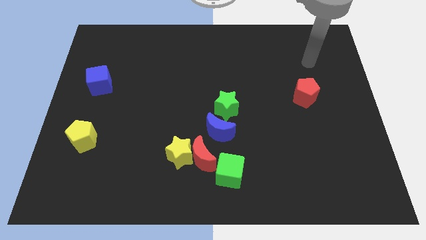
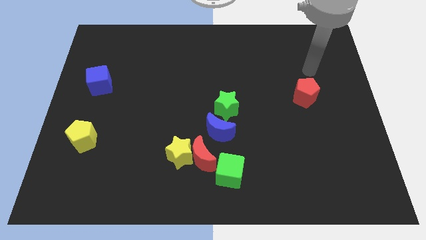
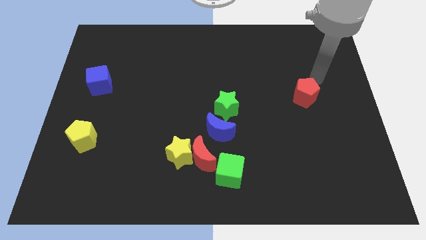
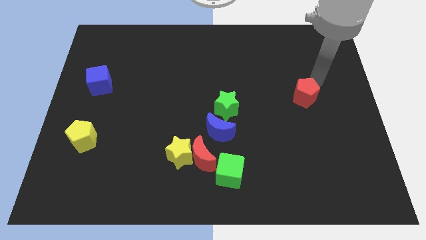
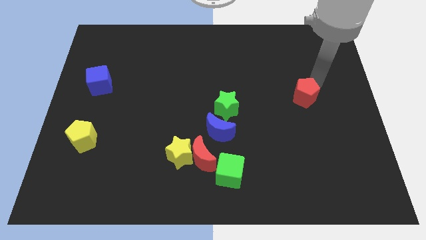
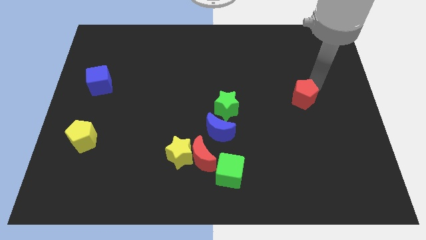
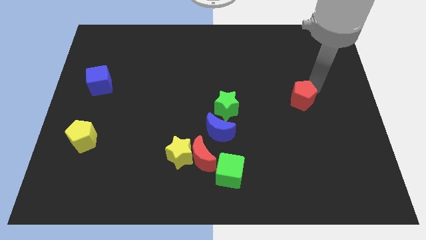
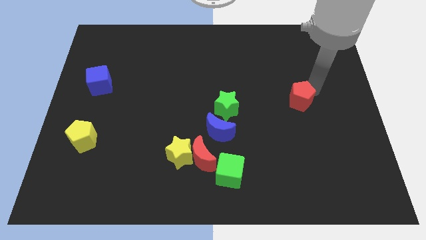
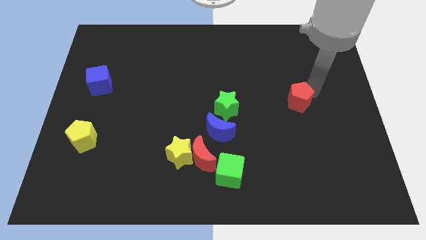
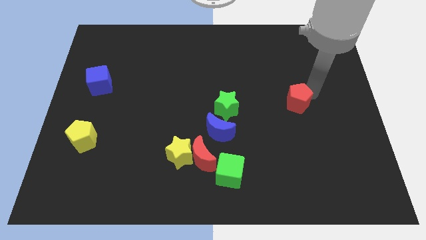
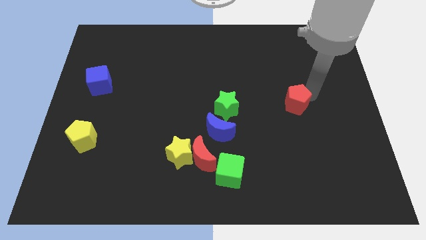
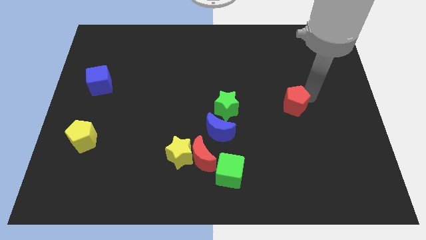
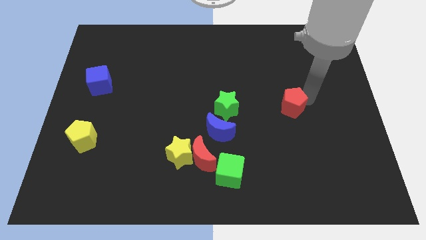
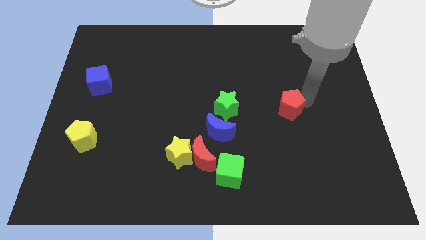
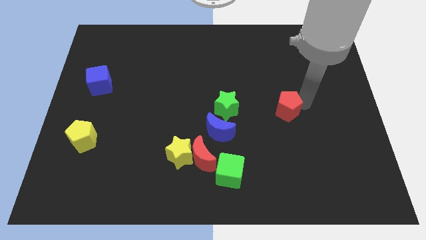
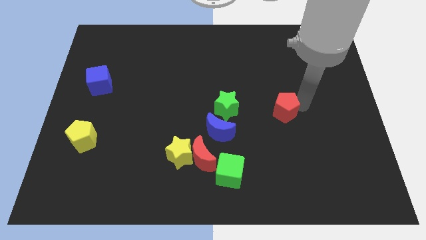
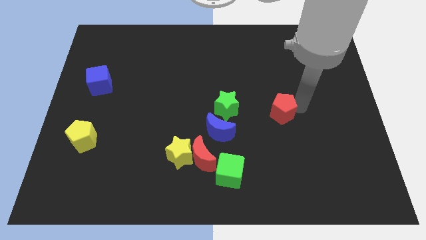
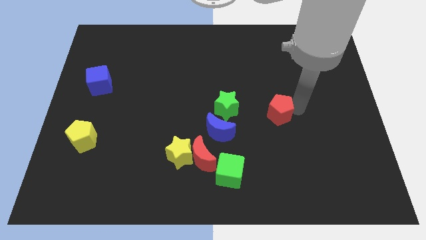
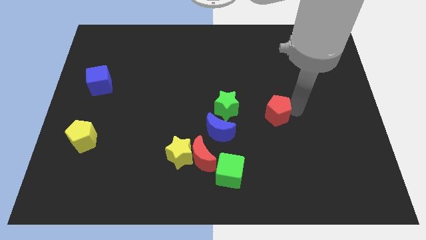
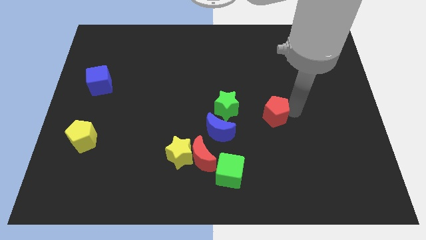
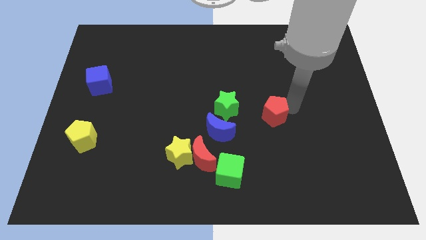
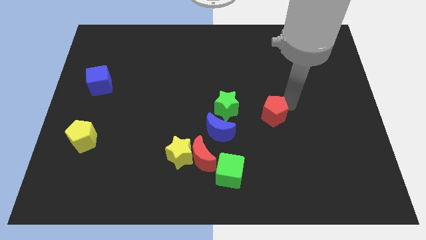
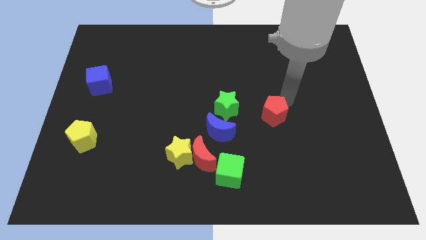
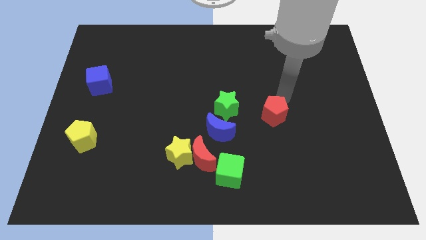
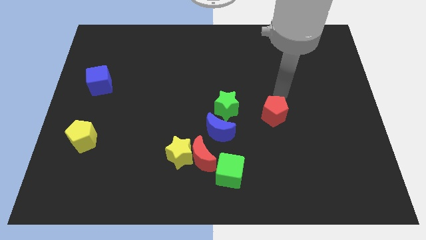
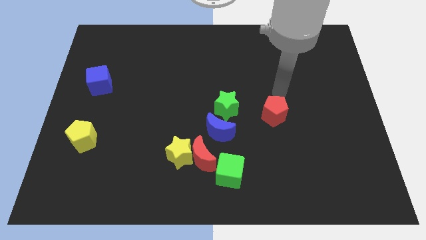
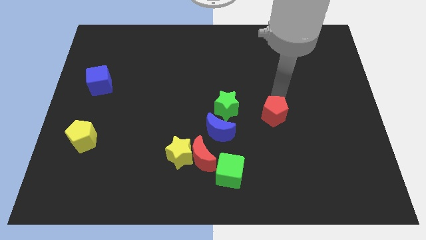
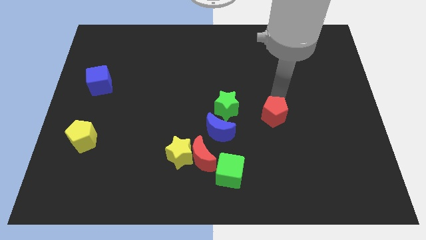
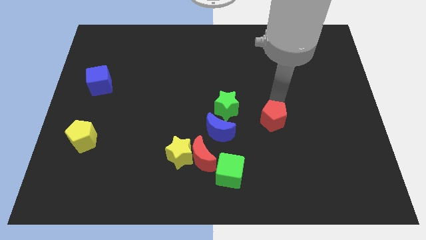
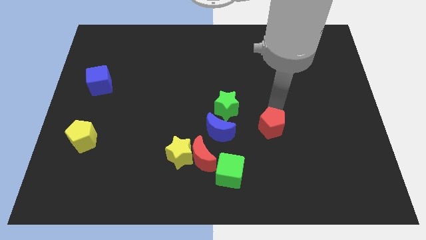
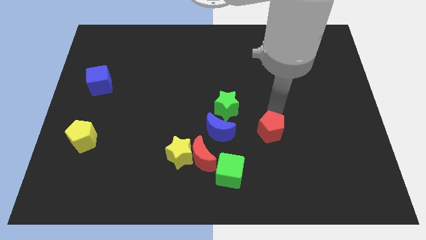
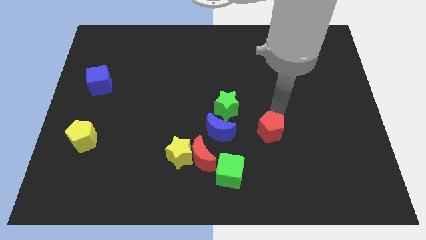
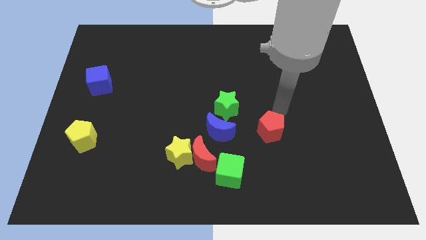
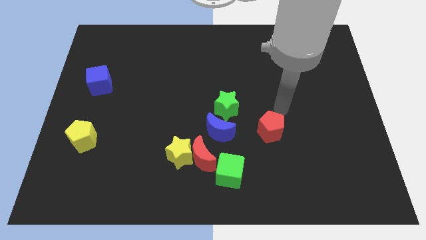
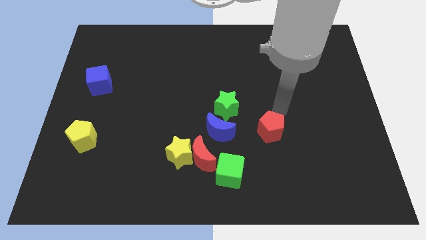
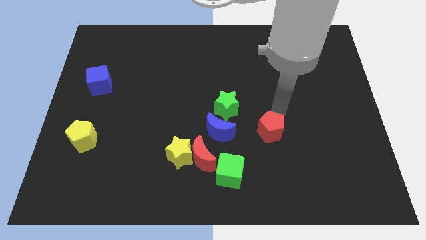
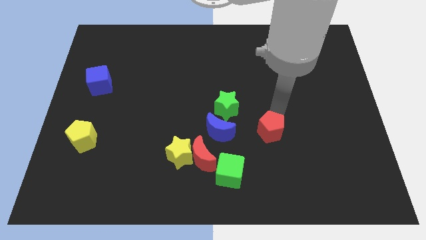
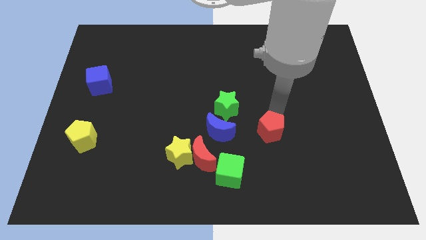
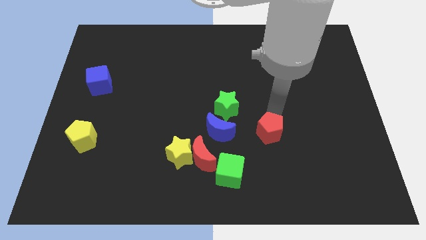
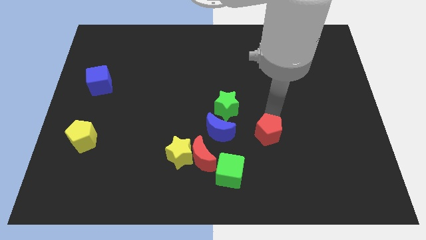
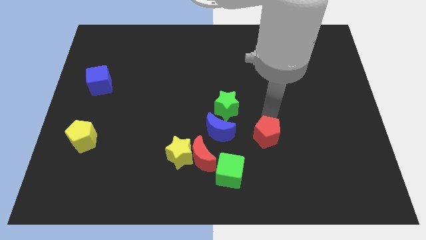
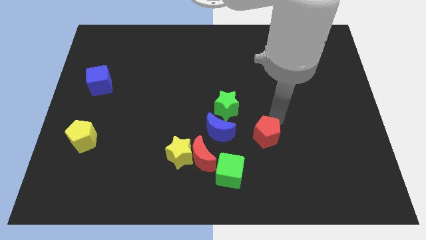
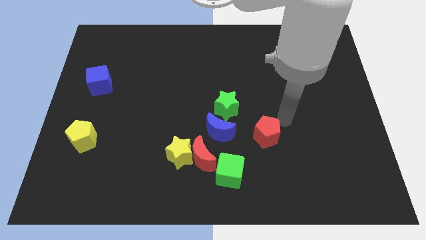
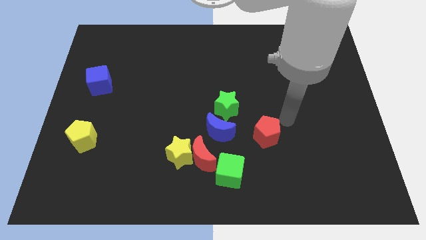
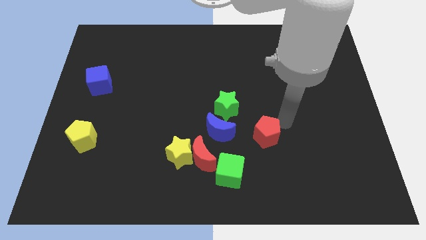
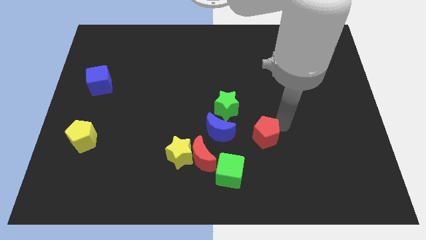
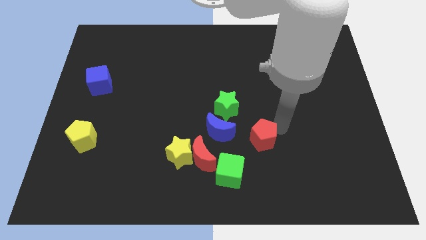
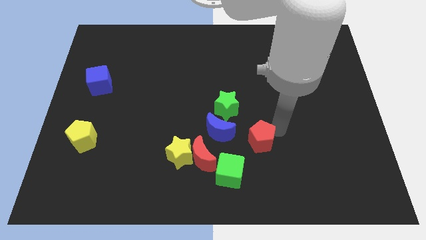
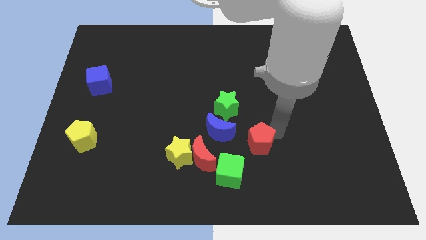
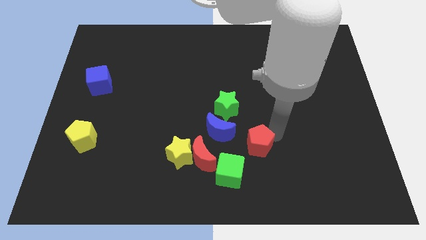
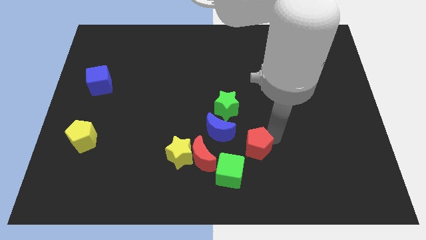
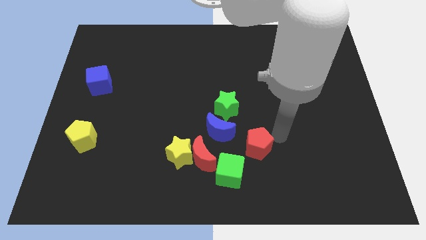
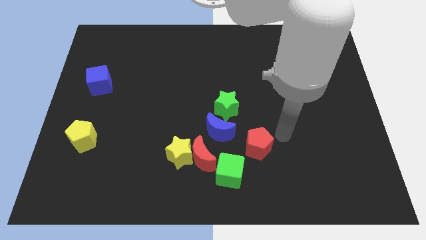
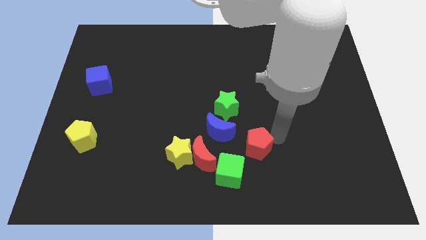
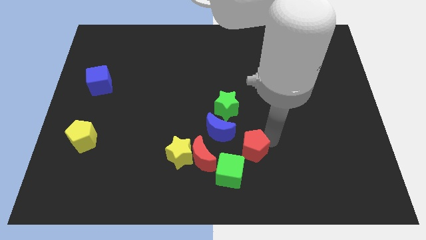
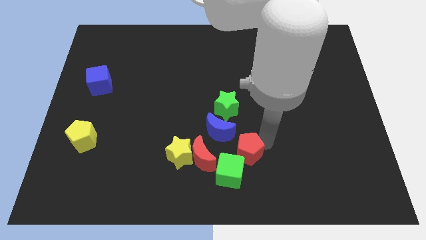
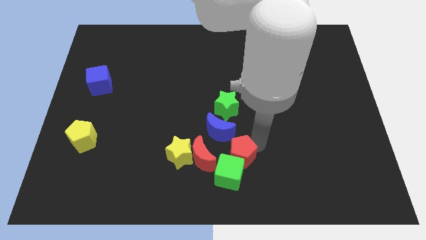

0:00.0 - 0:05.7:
push the red pentagon next to the green cube

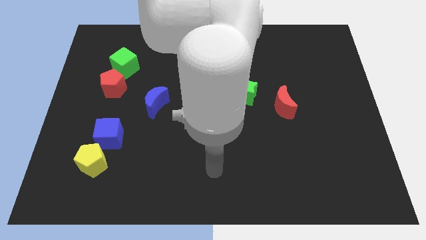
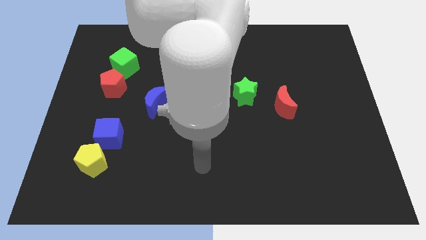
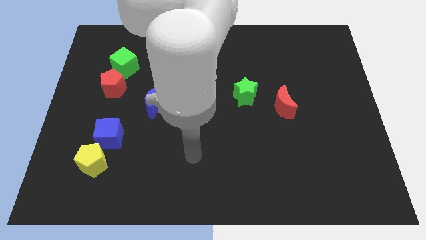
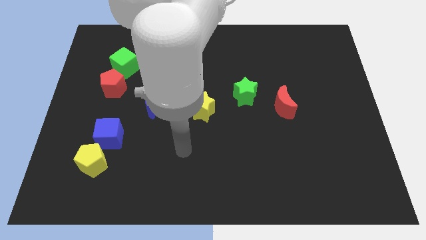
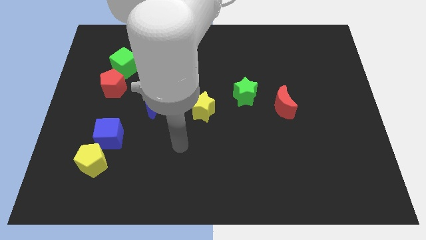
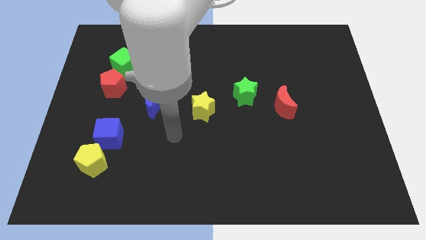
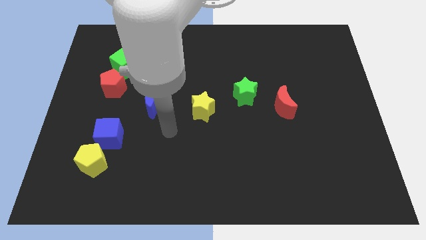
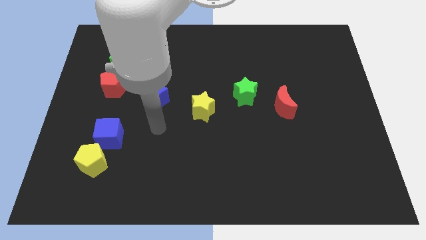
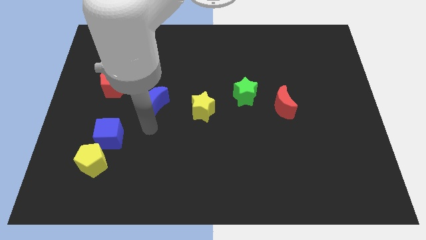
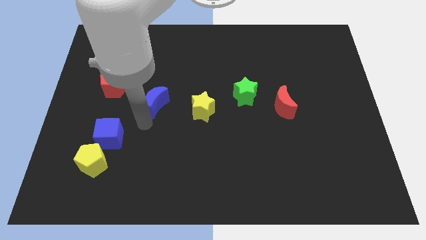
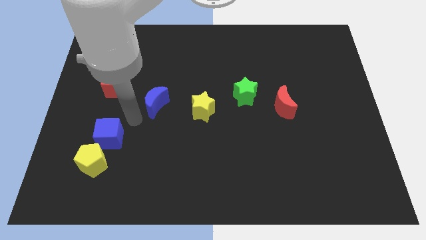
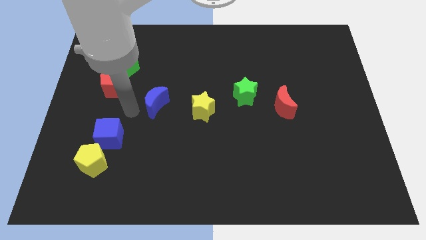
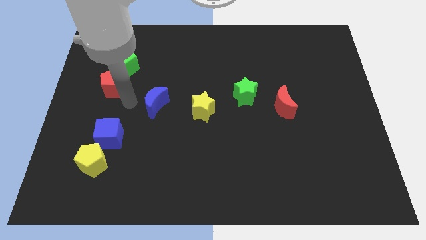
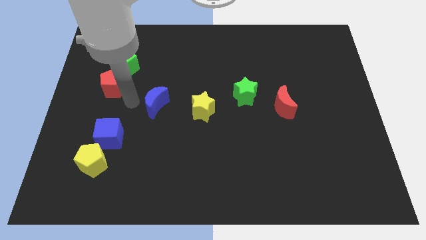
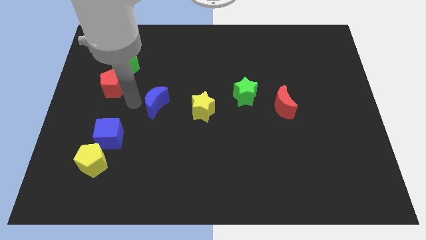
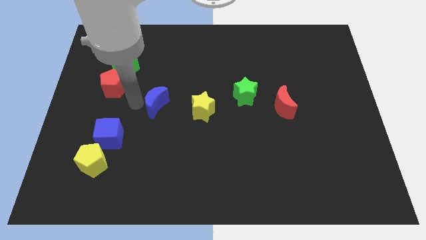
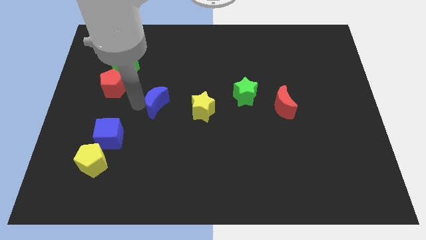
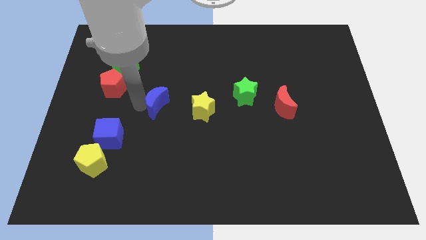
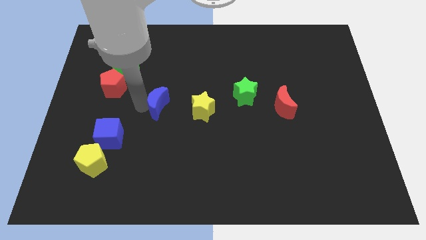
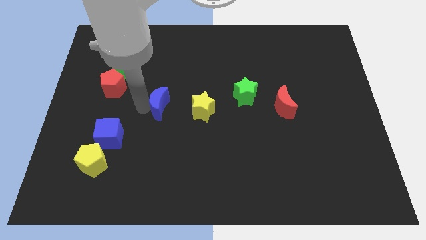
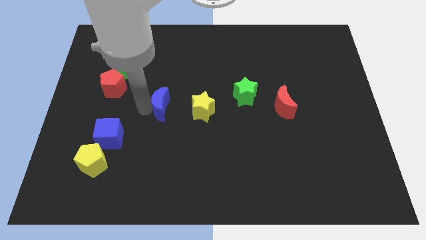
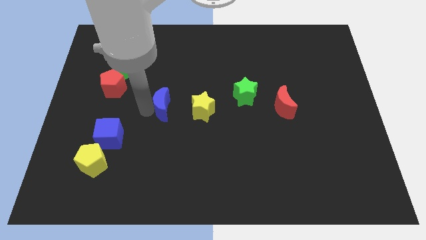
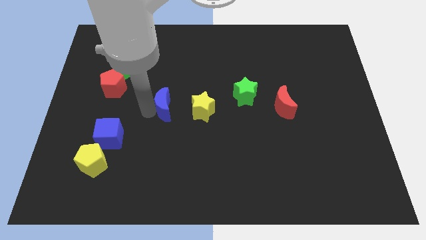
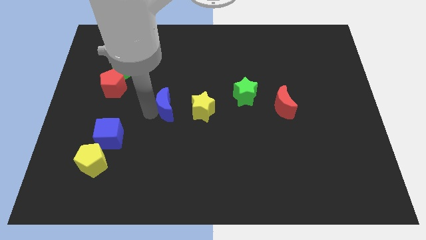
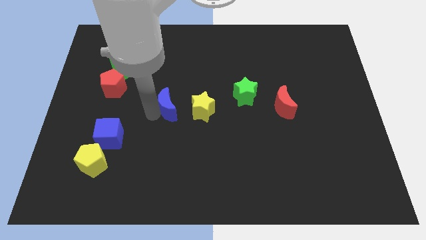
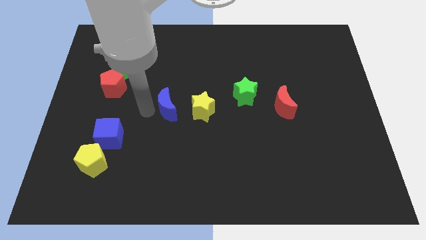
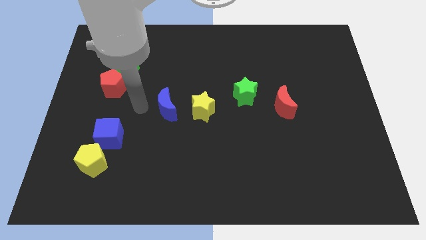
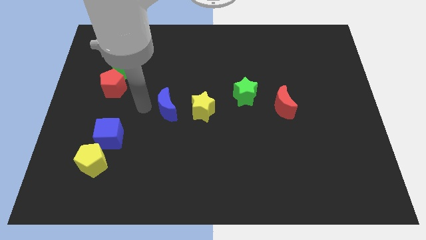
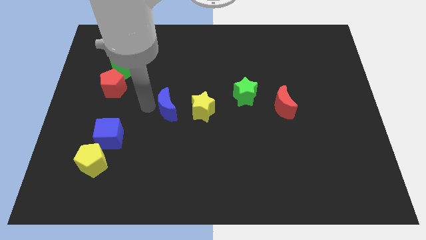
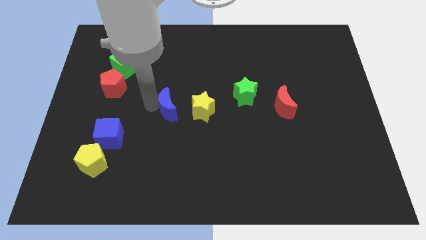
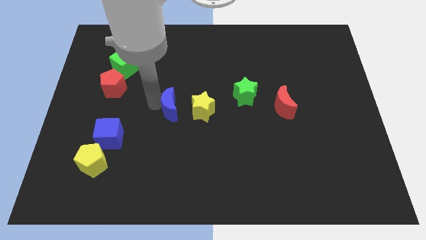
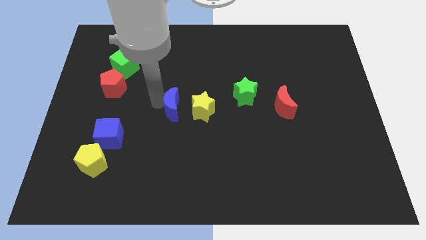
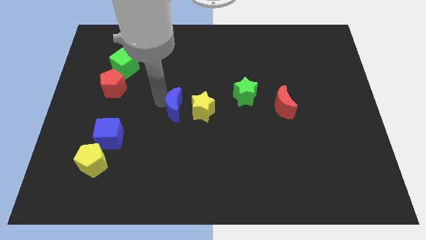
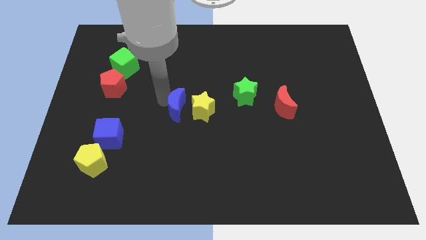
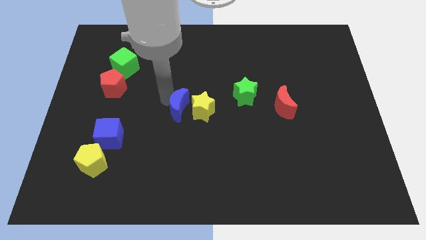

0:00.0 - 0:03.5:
slide the blue moon next to the yellow star
